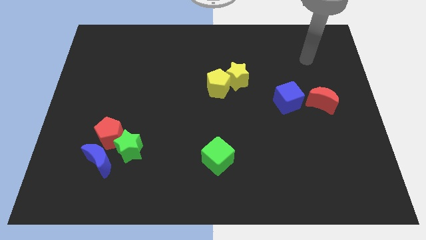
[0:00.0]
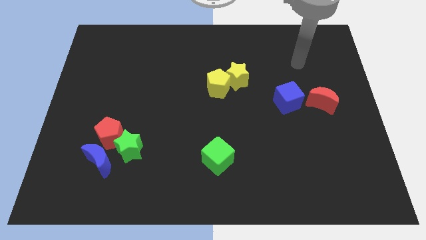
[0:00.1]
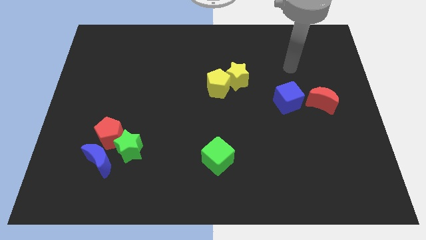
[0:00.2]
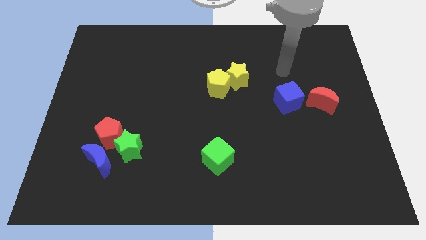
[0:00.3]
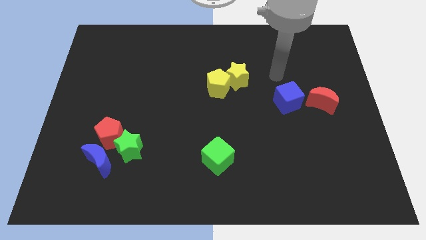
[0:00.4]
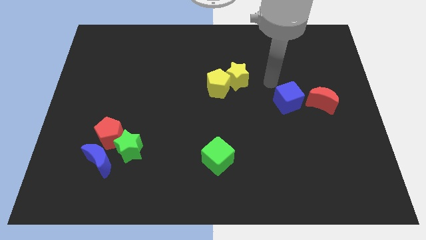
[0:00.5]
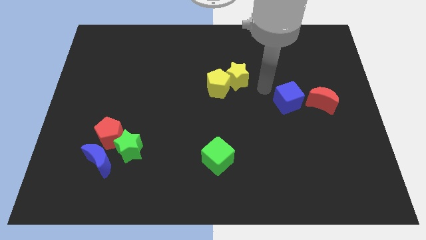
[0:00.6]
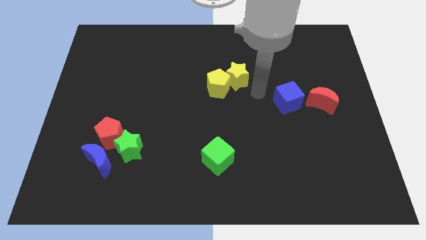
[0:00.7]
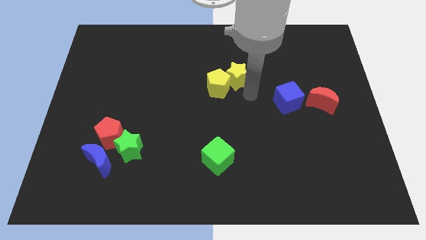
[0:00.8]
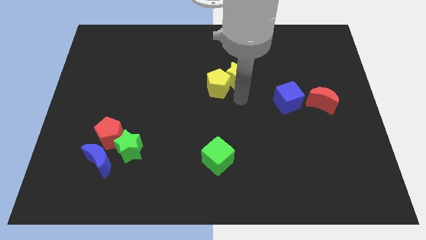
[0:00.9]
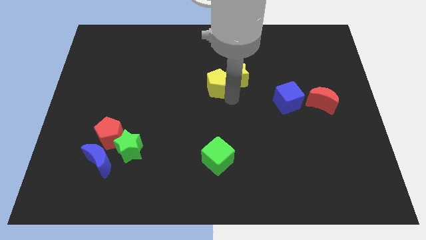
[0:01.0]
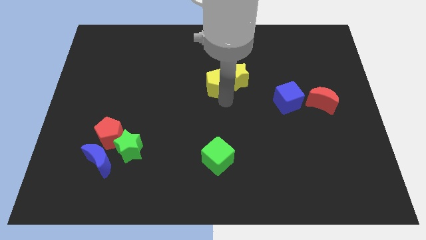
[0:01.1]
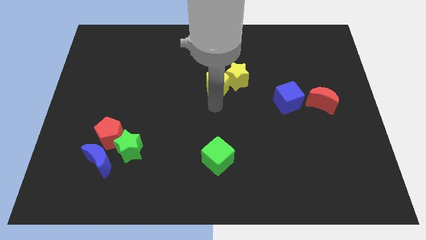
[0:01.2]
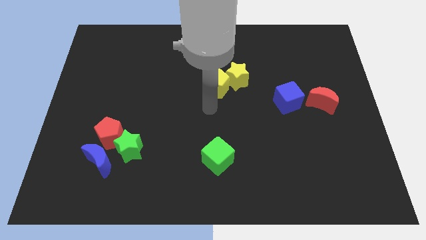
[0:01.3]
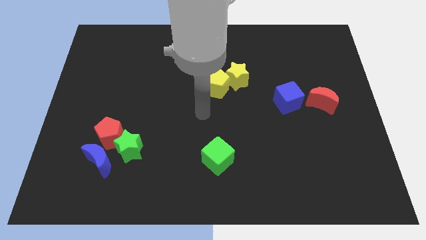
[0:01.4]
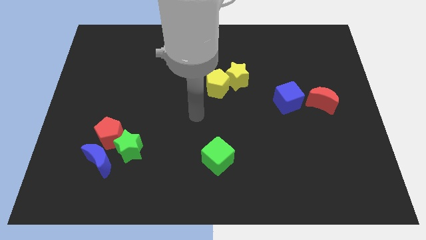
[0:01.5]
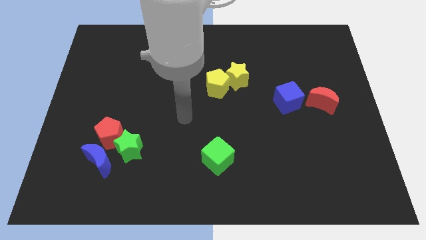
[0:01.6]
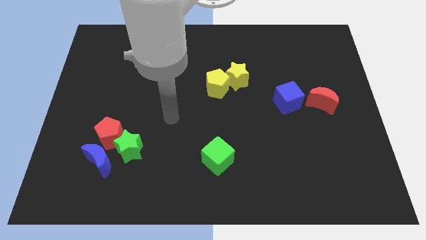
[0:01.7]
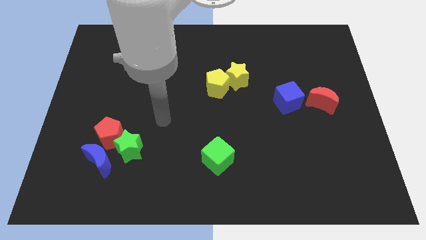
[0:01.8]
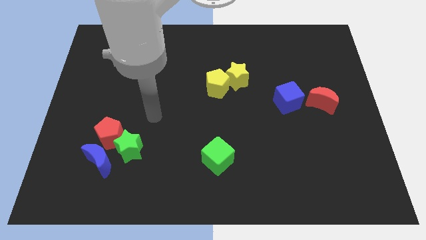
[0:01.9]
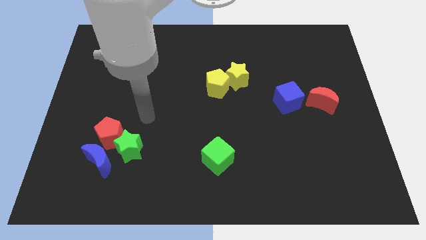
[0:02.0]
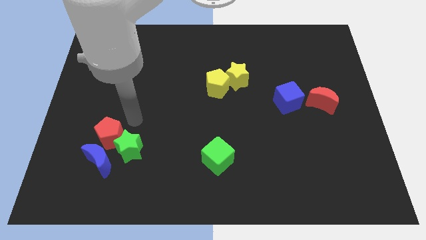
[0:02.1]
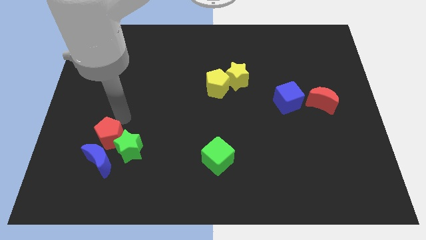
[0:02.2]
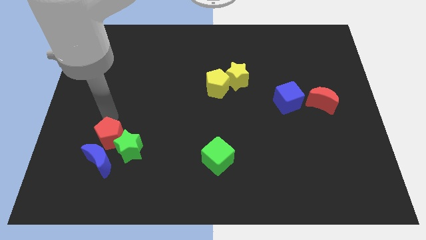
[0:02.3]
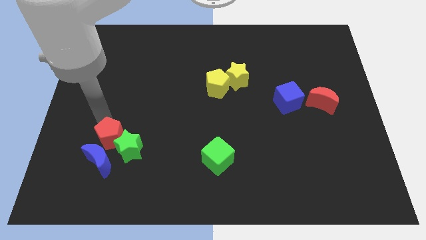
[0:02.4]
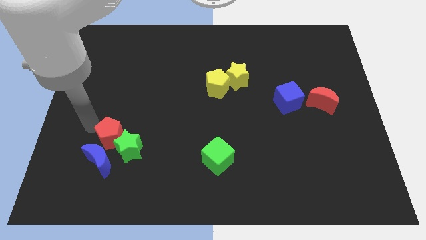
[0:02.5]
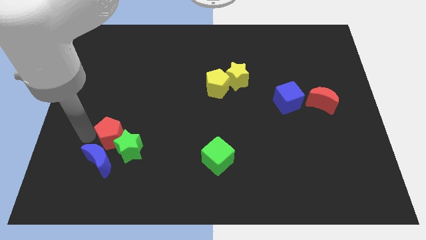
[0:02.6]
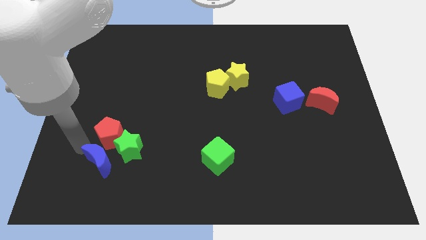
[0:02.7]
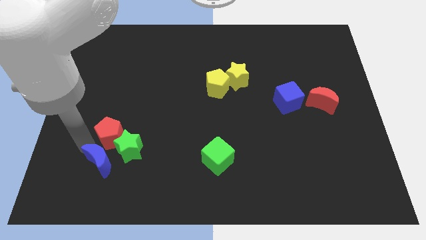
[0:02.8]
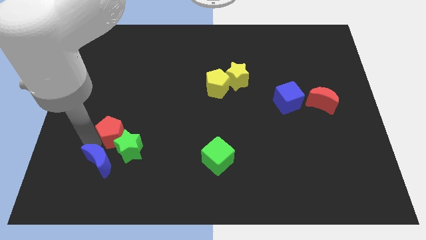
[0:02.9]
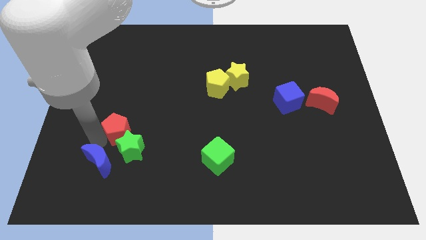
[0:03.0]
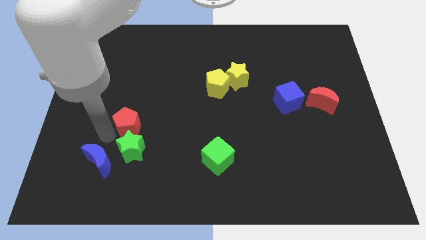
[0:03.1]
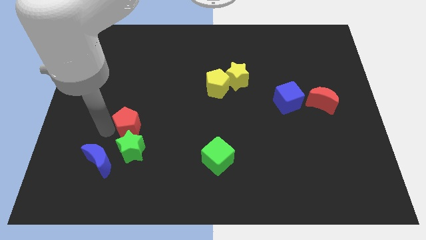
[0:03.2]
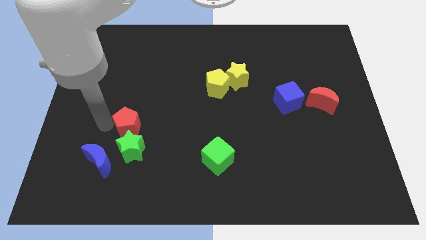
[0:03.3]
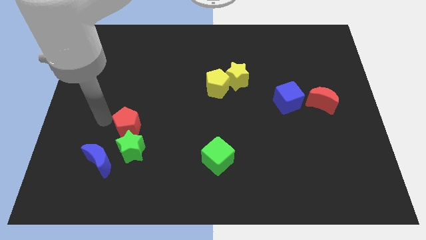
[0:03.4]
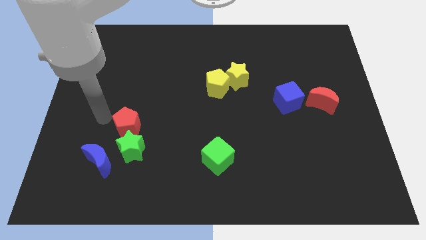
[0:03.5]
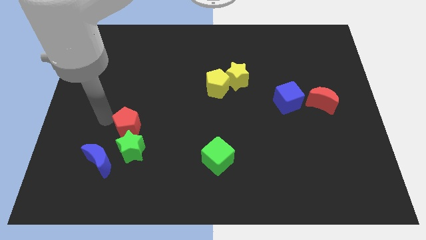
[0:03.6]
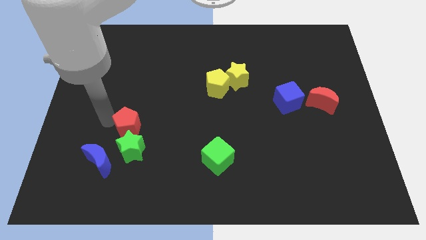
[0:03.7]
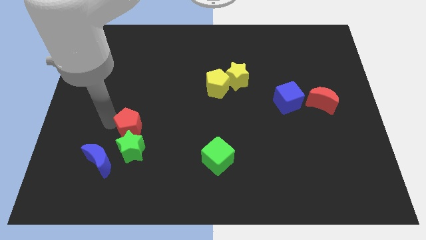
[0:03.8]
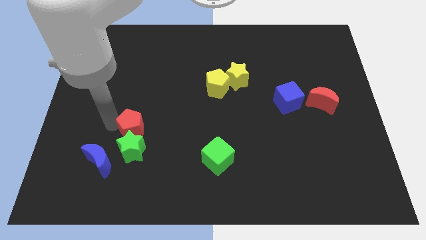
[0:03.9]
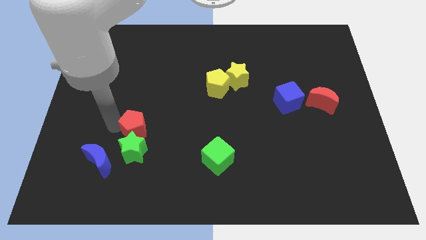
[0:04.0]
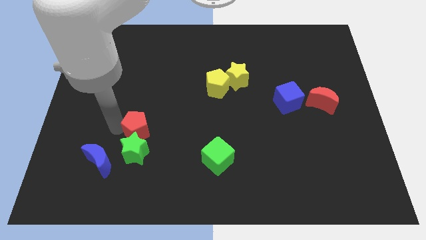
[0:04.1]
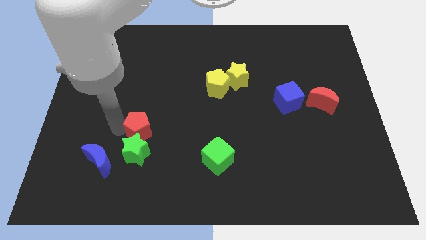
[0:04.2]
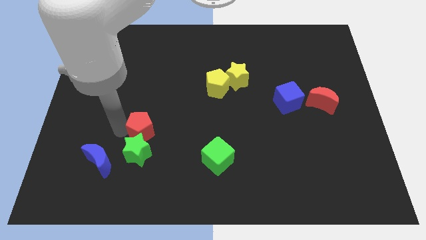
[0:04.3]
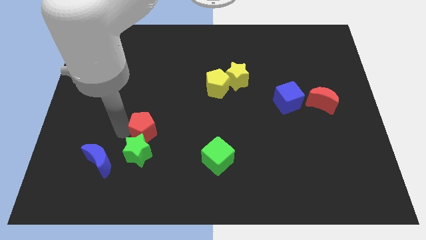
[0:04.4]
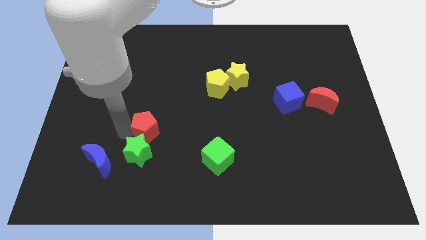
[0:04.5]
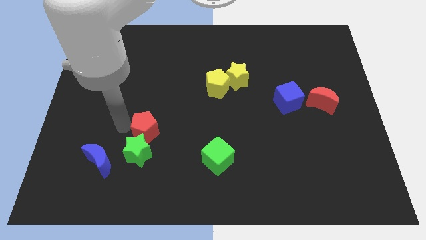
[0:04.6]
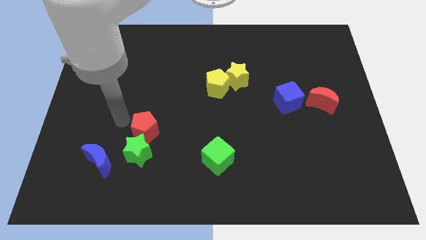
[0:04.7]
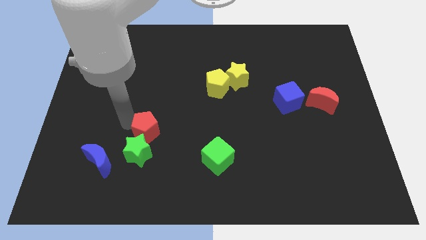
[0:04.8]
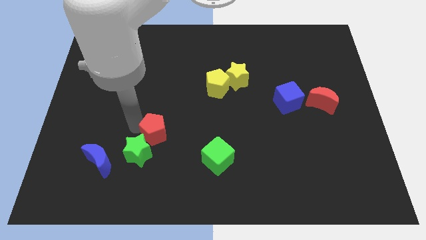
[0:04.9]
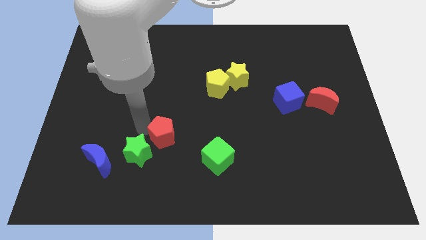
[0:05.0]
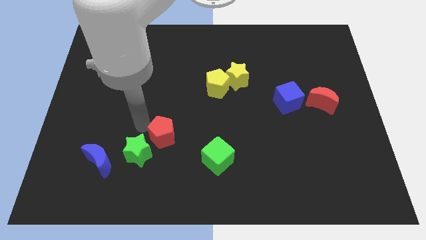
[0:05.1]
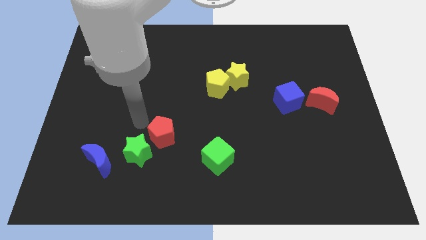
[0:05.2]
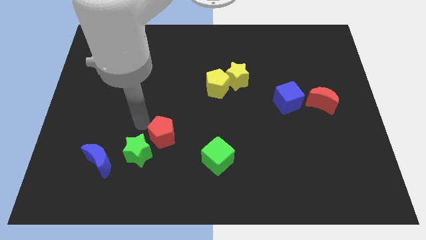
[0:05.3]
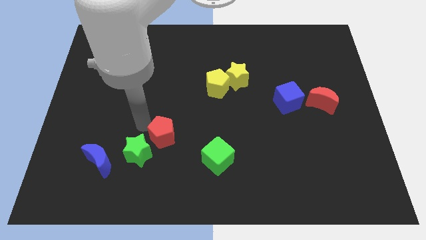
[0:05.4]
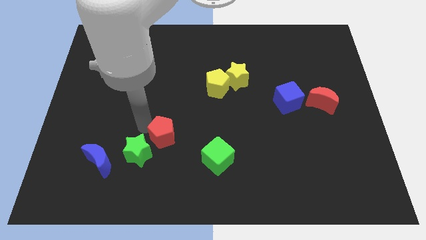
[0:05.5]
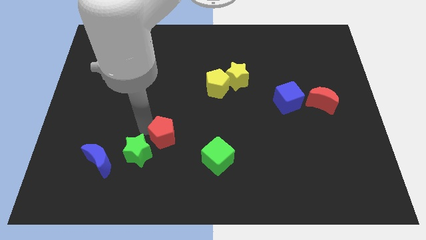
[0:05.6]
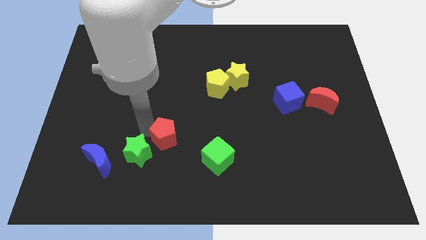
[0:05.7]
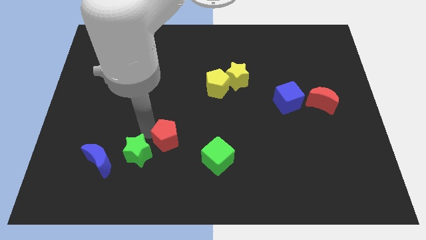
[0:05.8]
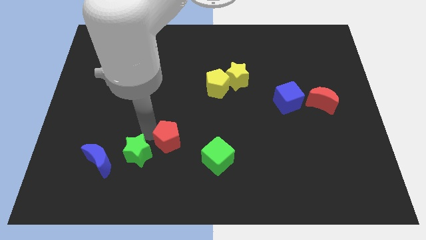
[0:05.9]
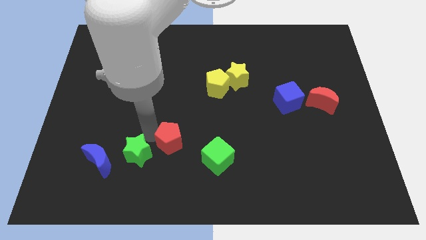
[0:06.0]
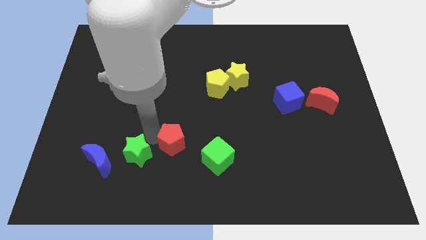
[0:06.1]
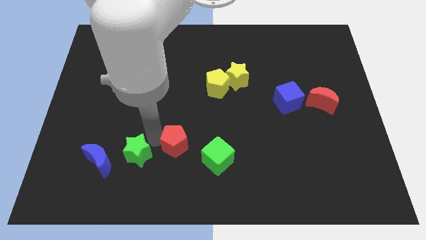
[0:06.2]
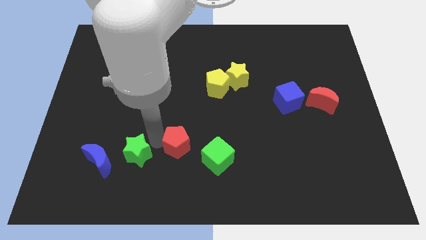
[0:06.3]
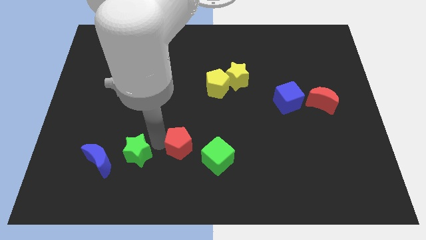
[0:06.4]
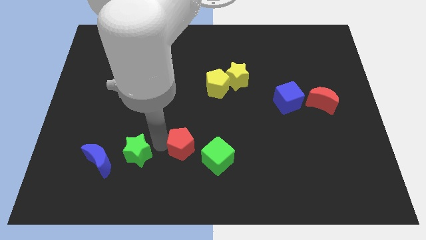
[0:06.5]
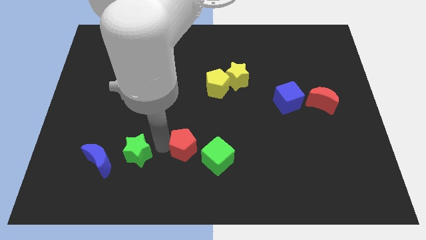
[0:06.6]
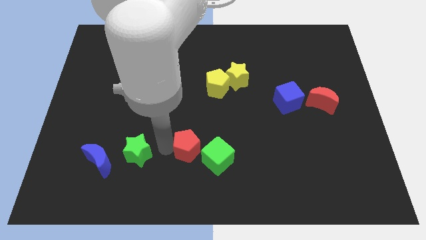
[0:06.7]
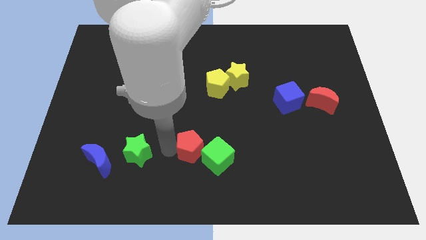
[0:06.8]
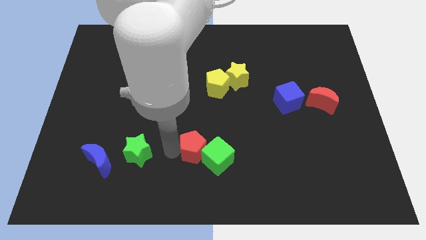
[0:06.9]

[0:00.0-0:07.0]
slide the red pentagon to the green cube
